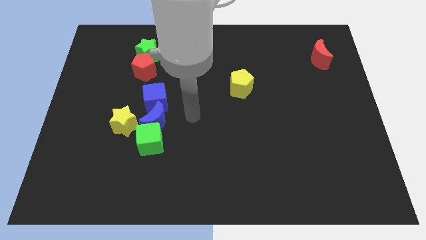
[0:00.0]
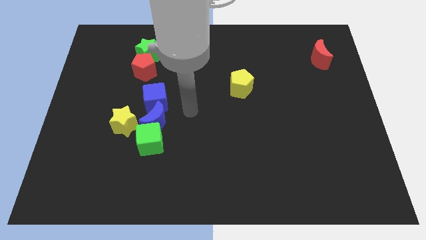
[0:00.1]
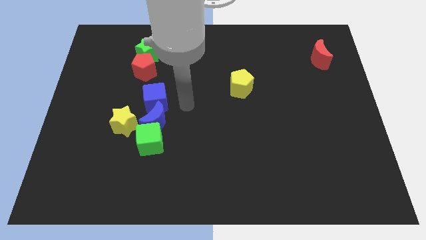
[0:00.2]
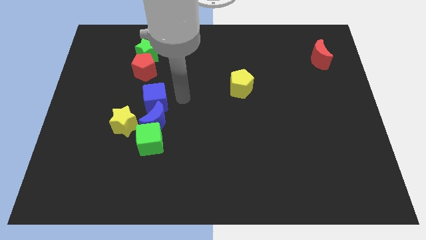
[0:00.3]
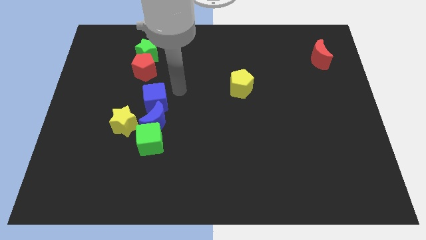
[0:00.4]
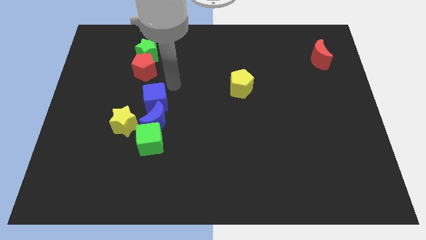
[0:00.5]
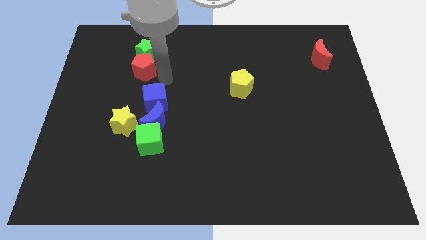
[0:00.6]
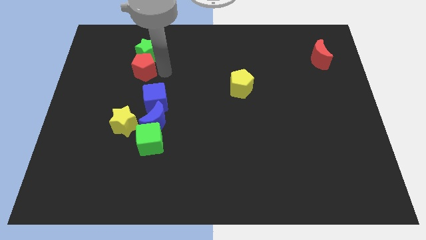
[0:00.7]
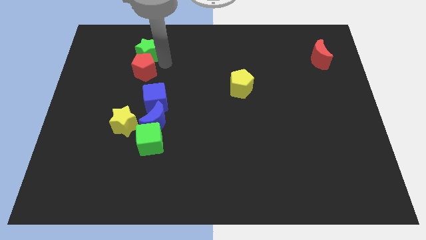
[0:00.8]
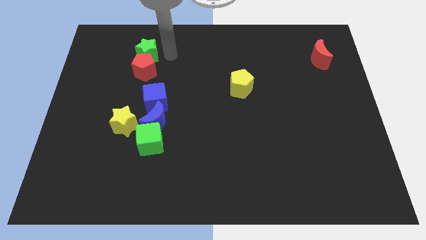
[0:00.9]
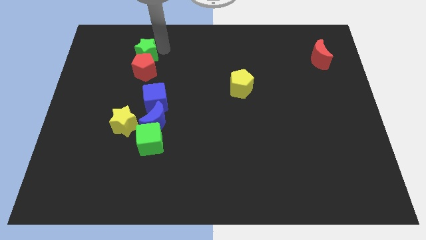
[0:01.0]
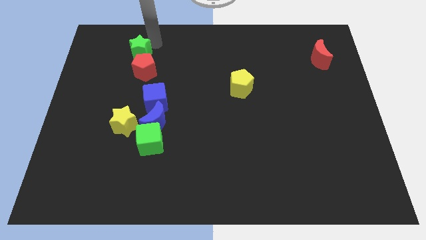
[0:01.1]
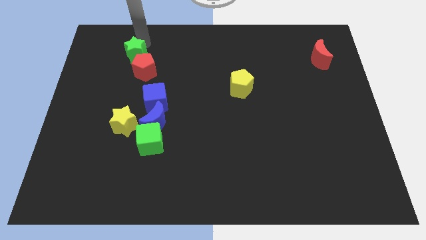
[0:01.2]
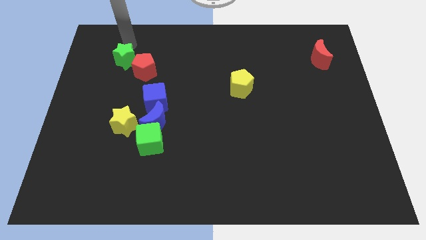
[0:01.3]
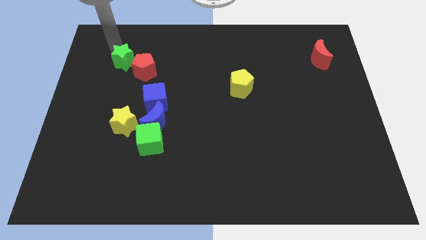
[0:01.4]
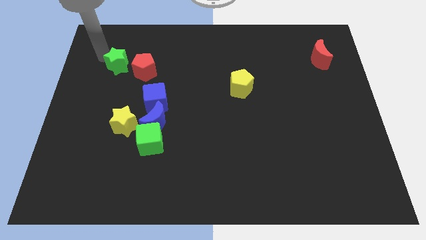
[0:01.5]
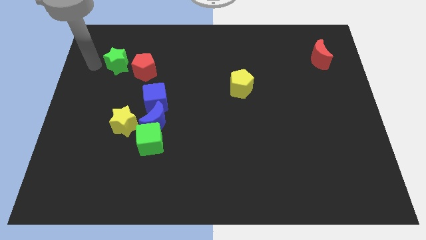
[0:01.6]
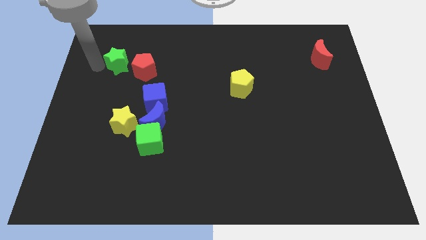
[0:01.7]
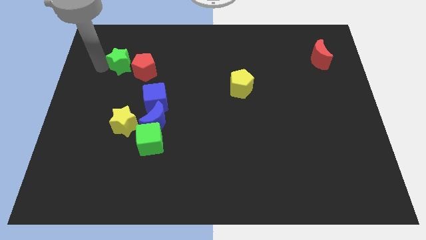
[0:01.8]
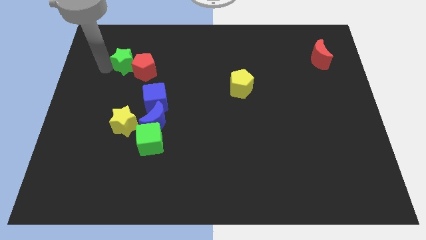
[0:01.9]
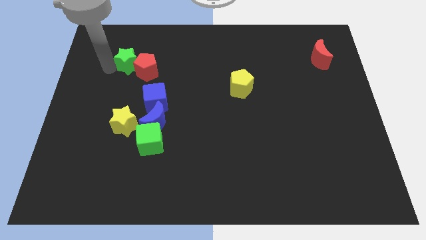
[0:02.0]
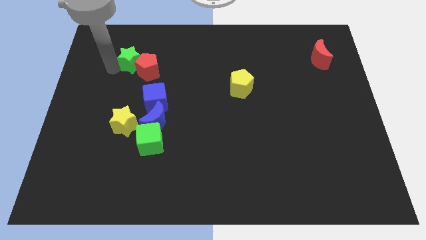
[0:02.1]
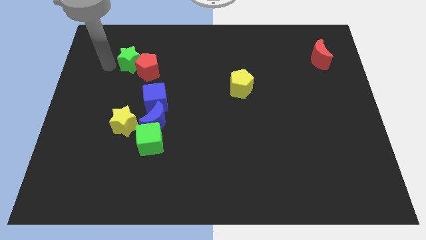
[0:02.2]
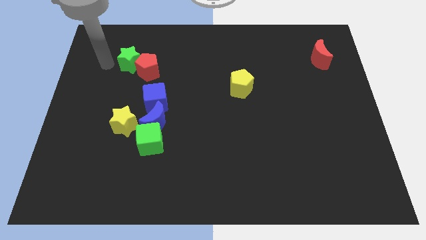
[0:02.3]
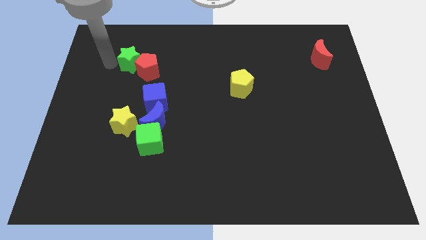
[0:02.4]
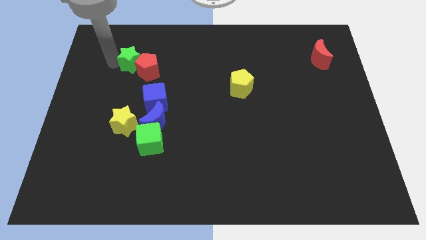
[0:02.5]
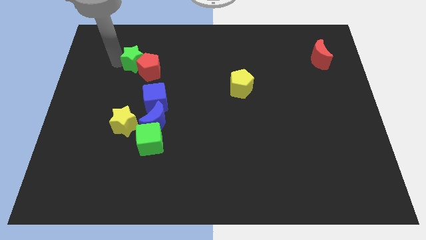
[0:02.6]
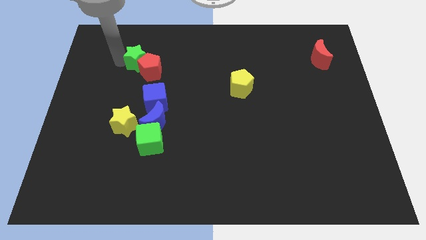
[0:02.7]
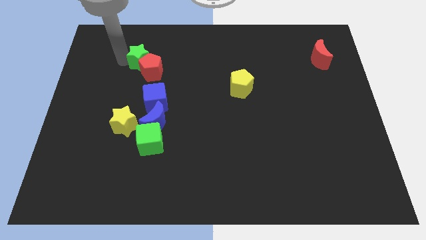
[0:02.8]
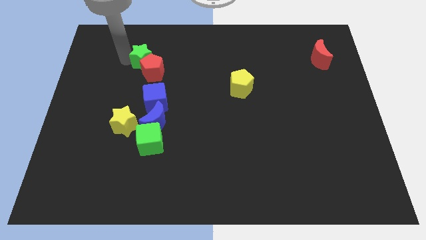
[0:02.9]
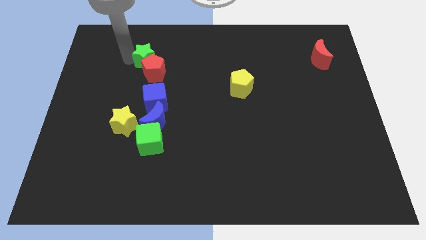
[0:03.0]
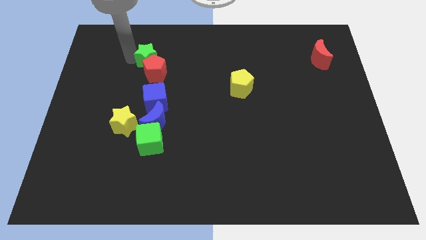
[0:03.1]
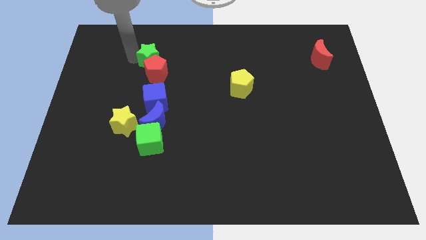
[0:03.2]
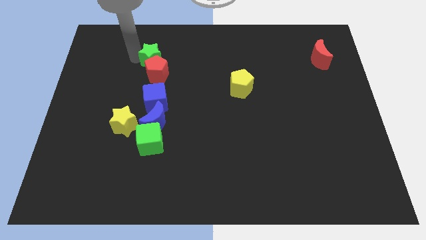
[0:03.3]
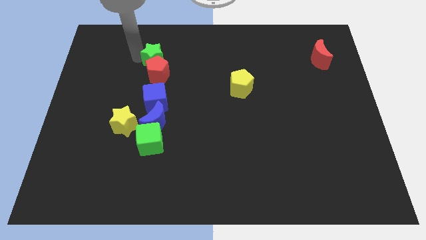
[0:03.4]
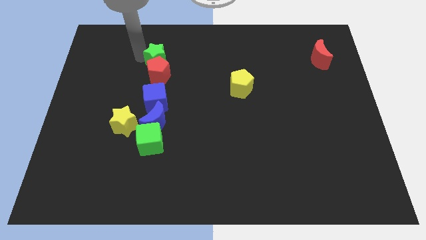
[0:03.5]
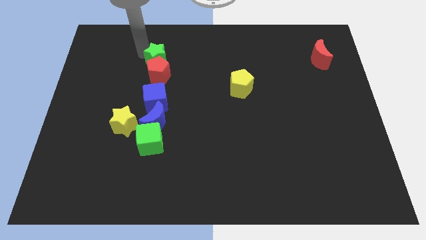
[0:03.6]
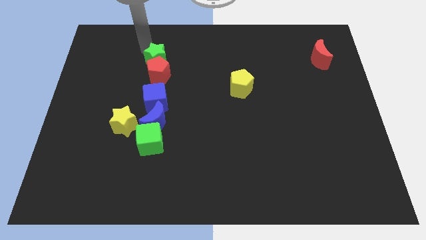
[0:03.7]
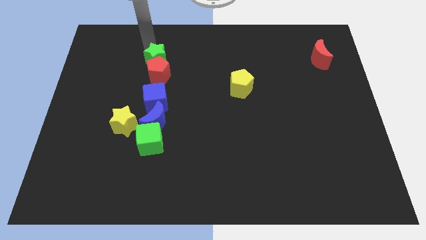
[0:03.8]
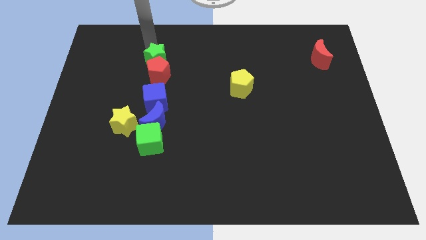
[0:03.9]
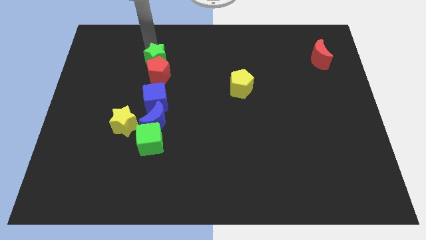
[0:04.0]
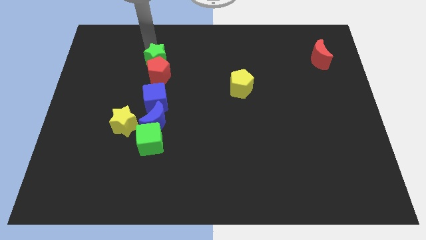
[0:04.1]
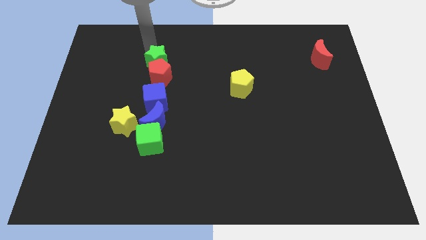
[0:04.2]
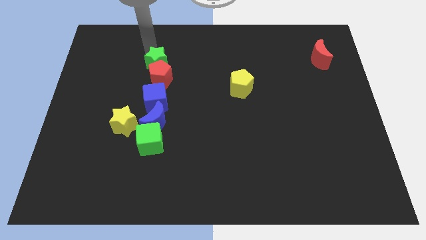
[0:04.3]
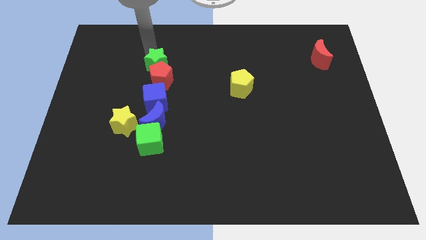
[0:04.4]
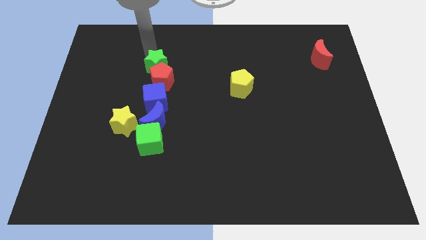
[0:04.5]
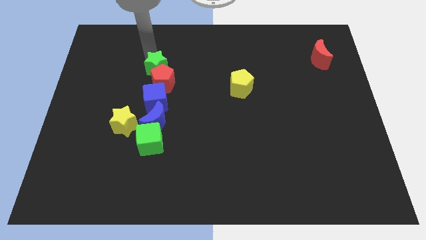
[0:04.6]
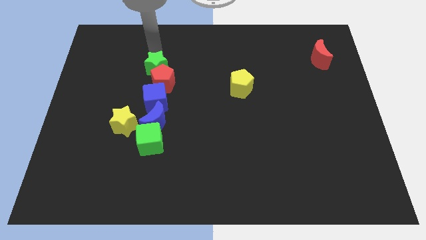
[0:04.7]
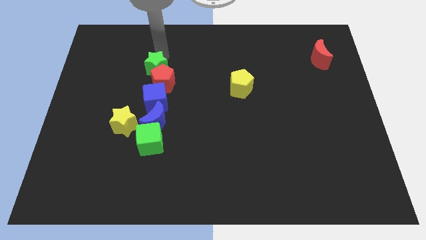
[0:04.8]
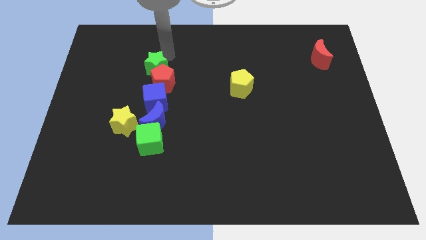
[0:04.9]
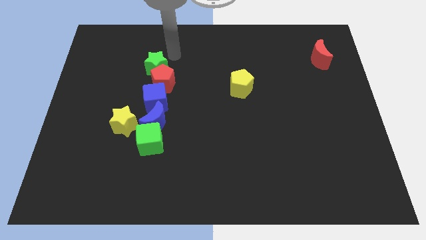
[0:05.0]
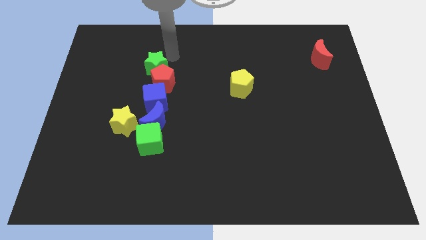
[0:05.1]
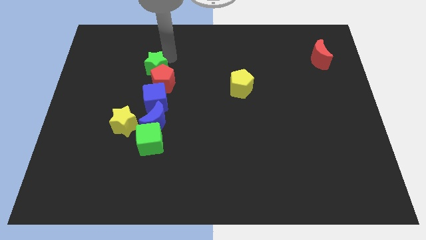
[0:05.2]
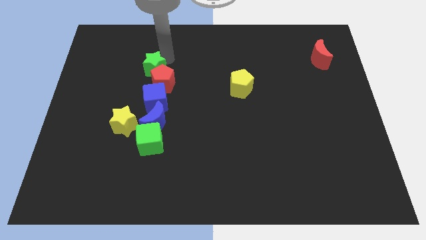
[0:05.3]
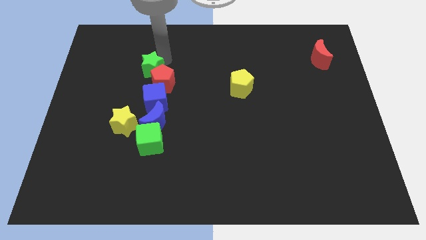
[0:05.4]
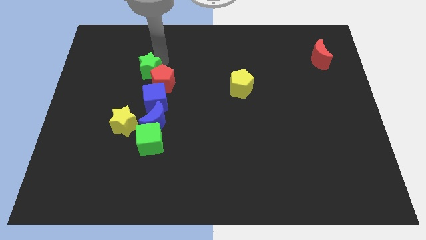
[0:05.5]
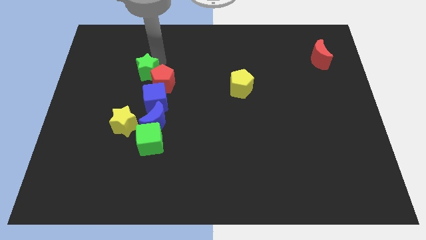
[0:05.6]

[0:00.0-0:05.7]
move the green star to the top left of the blue cube

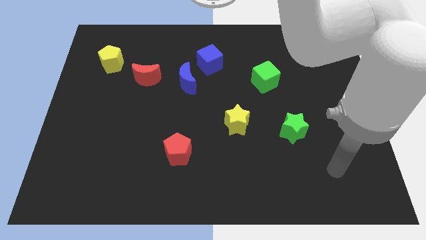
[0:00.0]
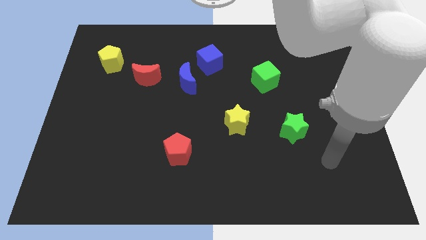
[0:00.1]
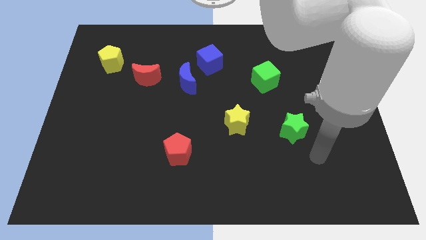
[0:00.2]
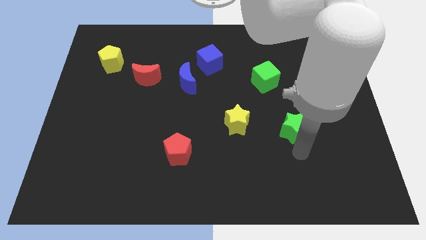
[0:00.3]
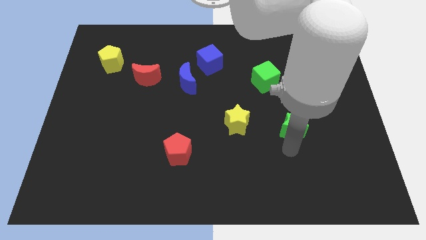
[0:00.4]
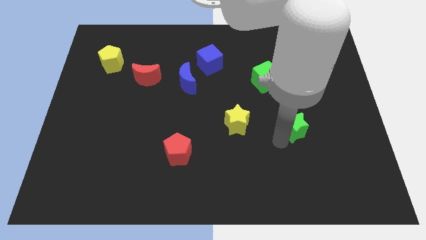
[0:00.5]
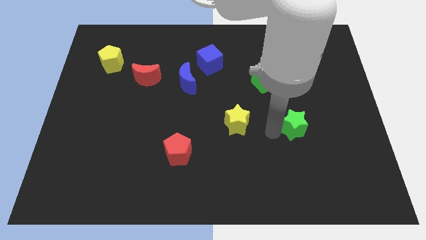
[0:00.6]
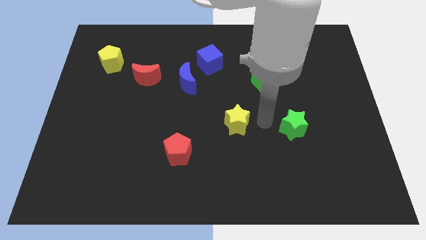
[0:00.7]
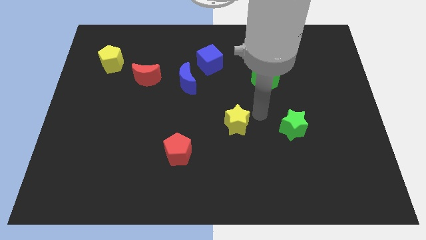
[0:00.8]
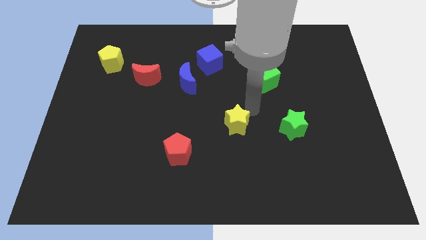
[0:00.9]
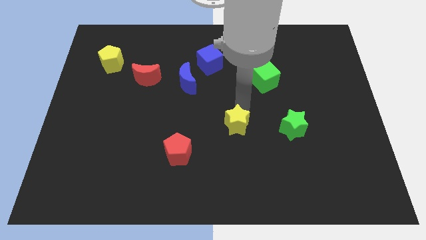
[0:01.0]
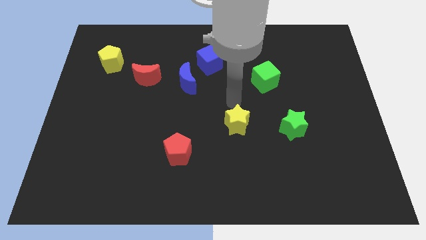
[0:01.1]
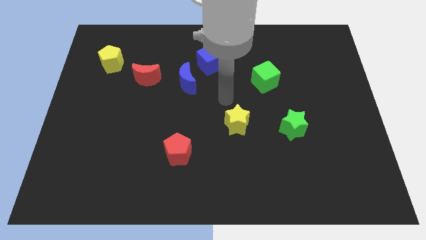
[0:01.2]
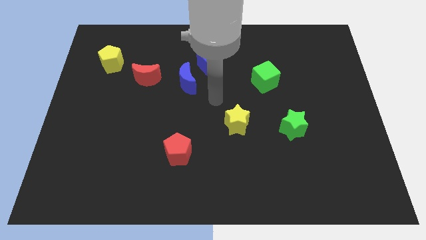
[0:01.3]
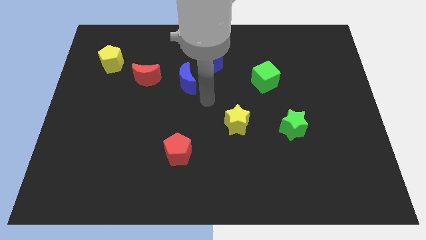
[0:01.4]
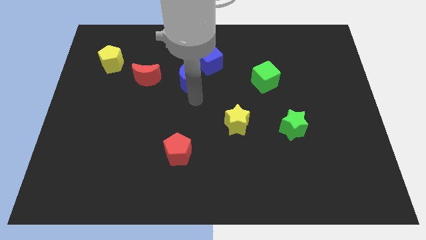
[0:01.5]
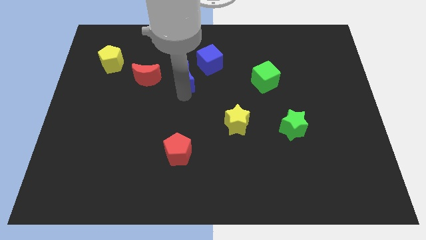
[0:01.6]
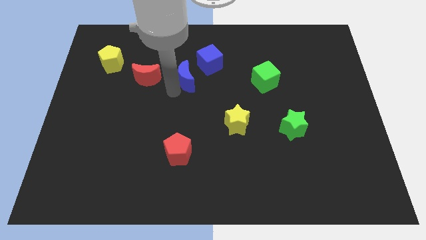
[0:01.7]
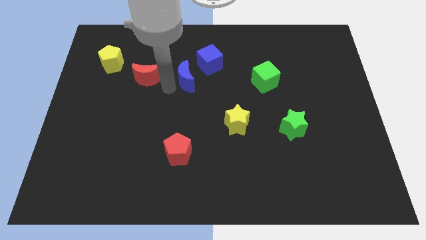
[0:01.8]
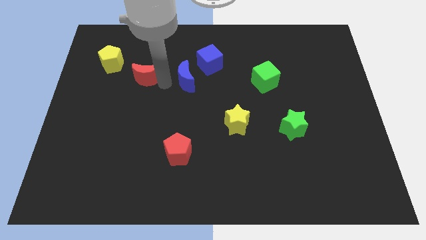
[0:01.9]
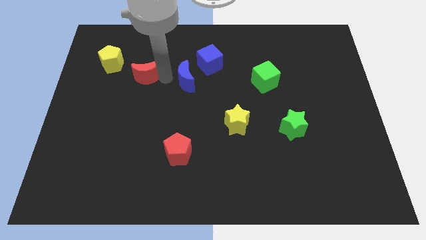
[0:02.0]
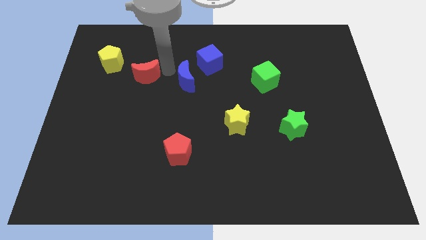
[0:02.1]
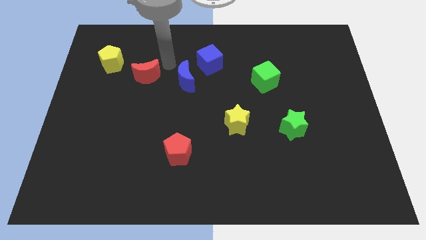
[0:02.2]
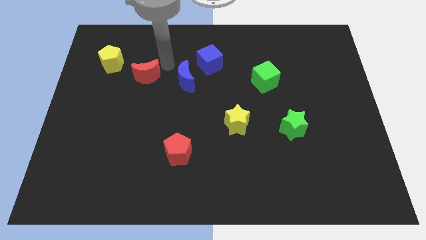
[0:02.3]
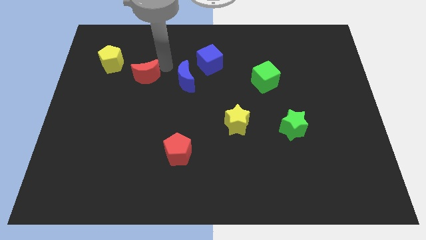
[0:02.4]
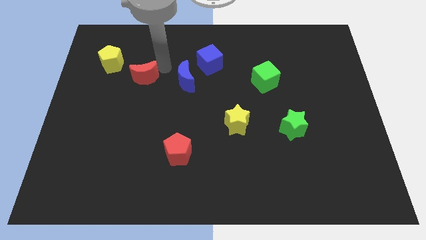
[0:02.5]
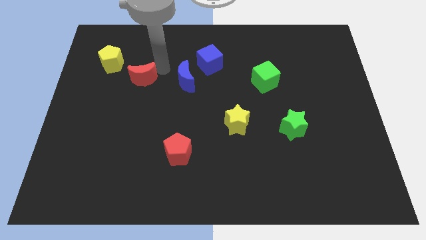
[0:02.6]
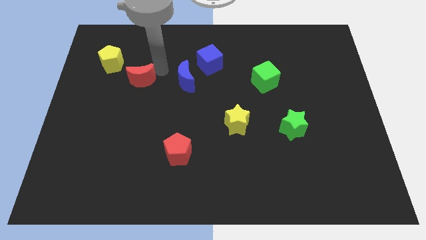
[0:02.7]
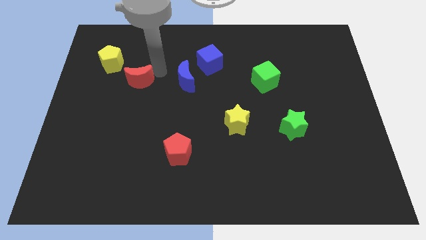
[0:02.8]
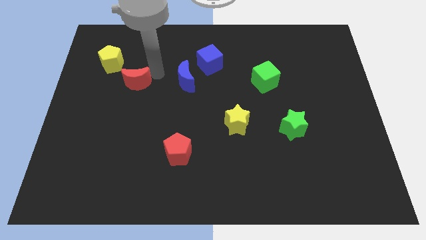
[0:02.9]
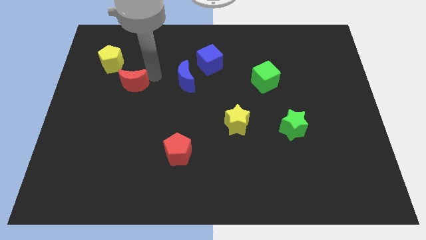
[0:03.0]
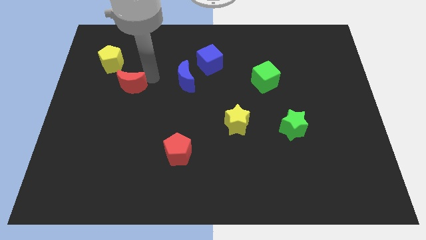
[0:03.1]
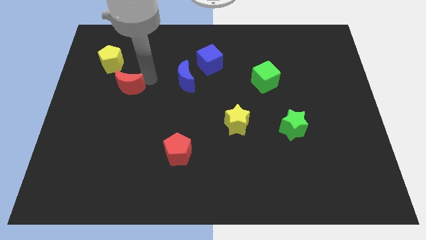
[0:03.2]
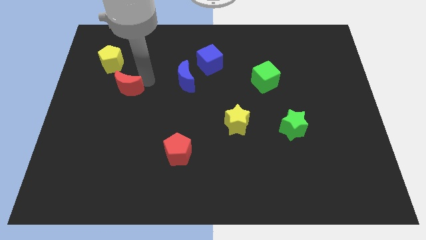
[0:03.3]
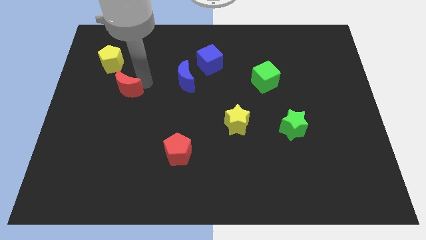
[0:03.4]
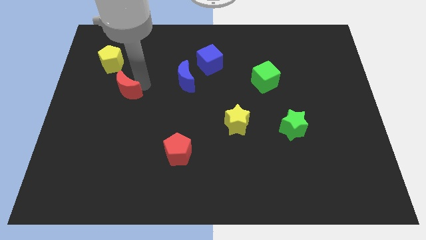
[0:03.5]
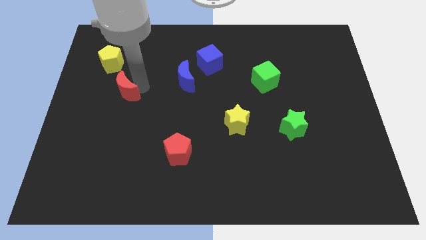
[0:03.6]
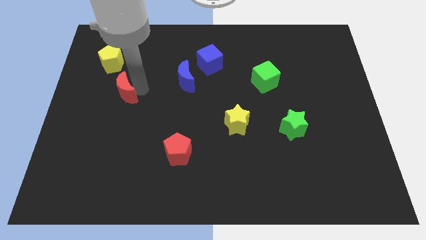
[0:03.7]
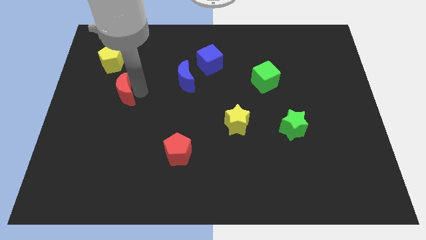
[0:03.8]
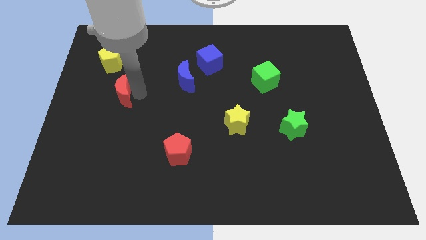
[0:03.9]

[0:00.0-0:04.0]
push the red moon to the bottom of the yellow pentagon
